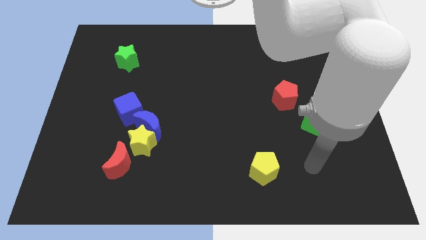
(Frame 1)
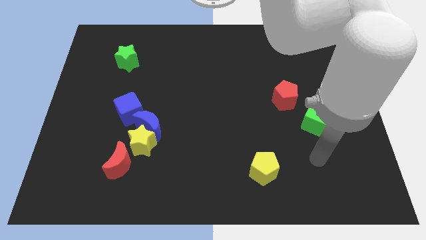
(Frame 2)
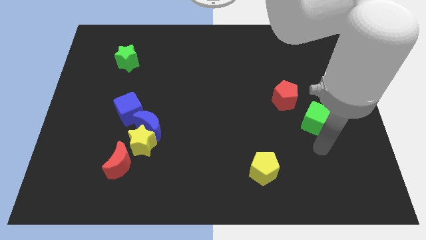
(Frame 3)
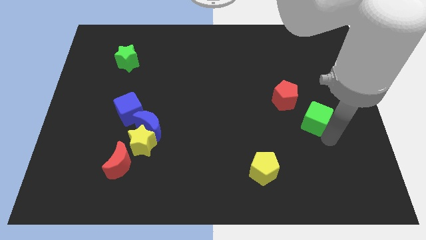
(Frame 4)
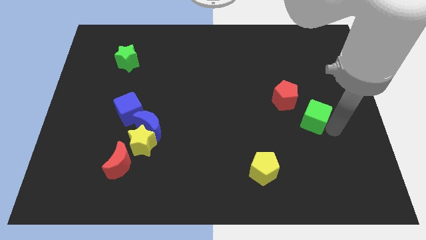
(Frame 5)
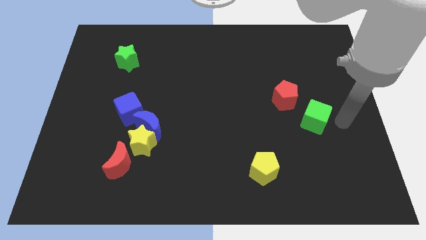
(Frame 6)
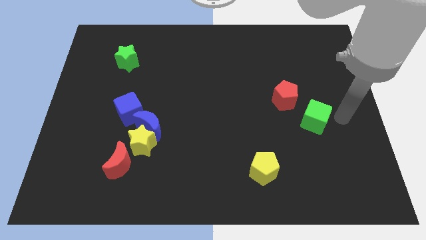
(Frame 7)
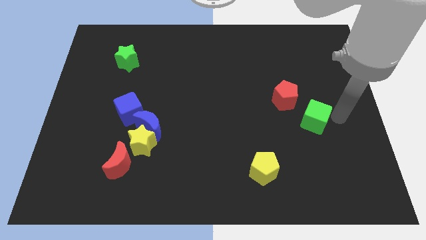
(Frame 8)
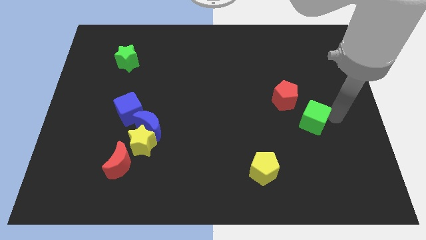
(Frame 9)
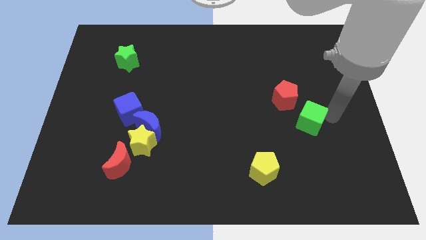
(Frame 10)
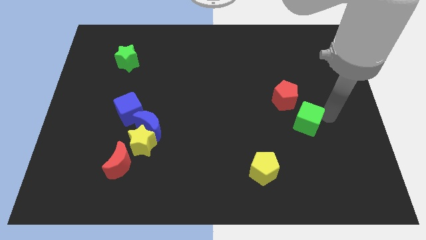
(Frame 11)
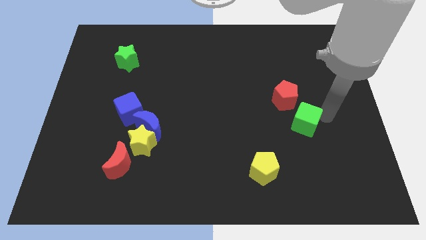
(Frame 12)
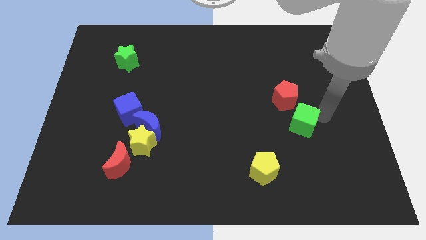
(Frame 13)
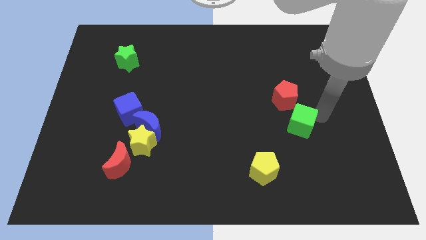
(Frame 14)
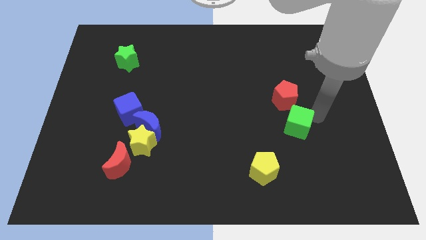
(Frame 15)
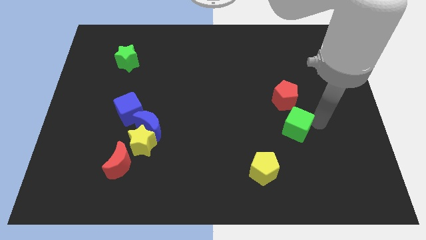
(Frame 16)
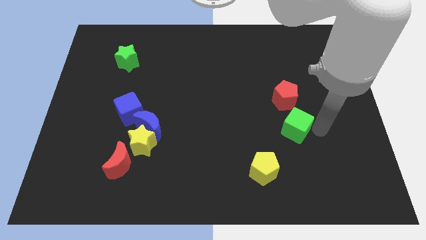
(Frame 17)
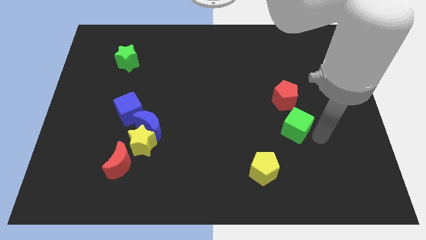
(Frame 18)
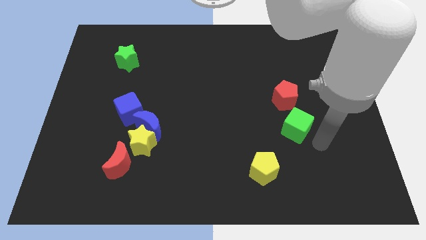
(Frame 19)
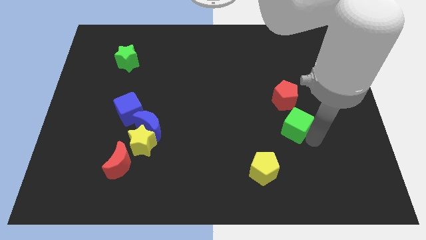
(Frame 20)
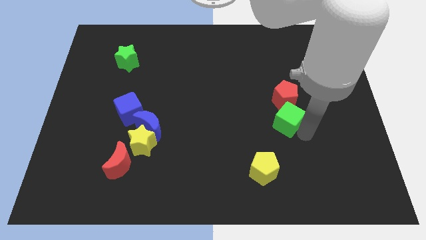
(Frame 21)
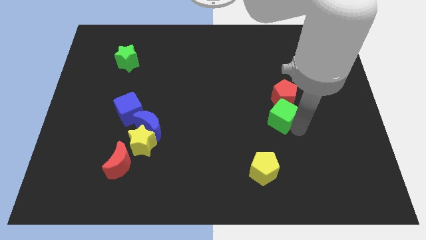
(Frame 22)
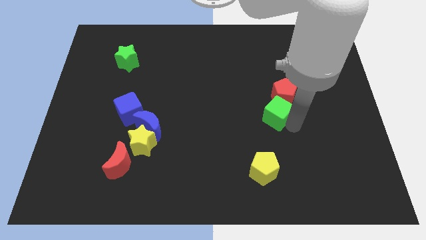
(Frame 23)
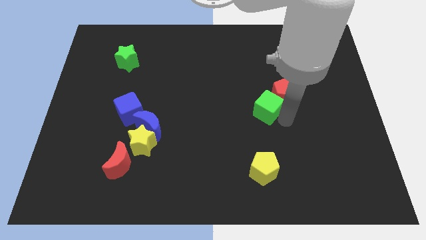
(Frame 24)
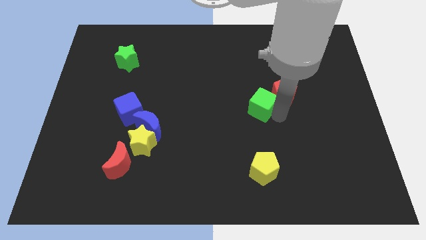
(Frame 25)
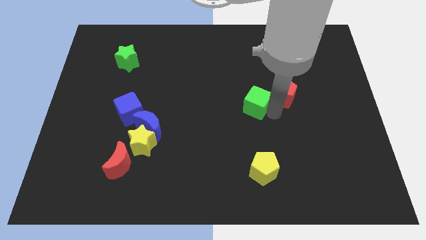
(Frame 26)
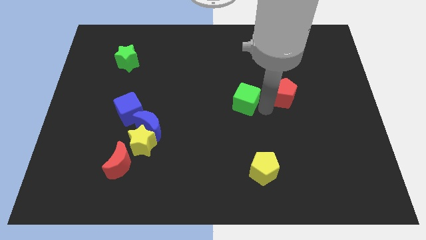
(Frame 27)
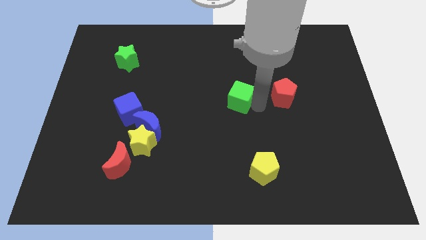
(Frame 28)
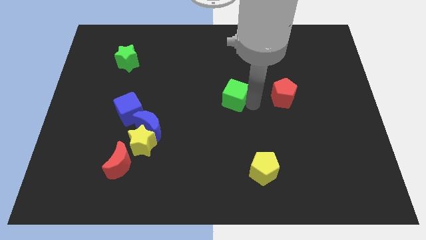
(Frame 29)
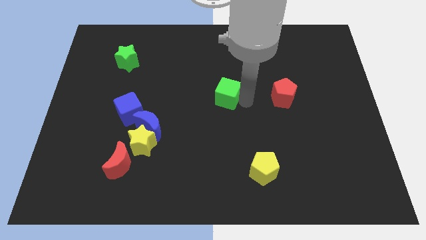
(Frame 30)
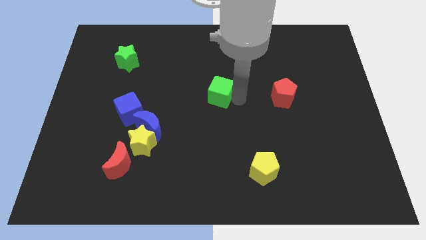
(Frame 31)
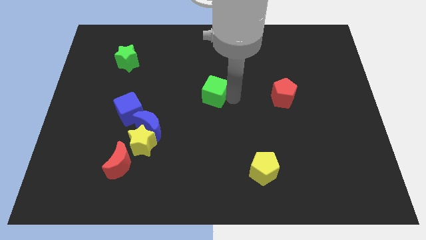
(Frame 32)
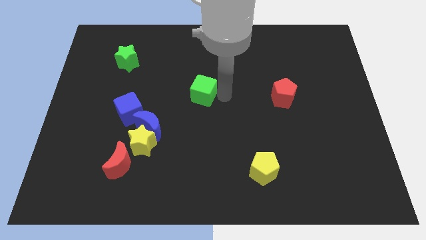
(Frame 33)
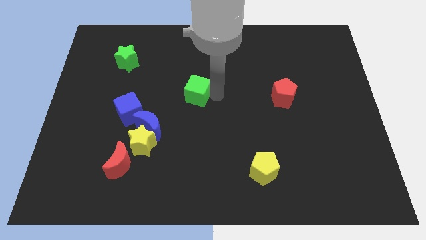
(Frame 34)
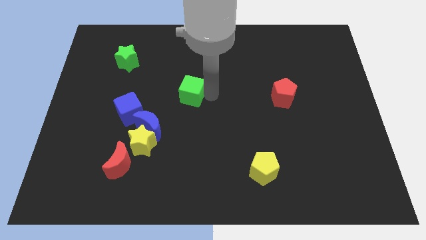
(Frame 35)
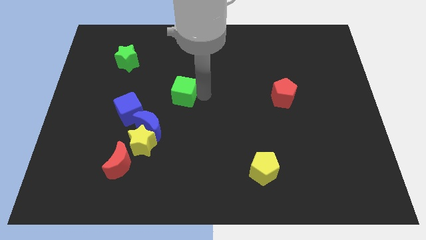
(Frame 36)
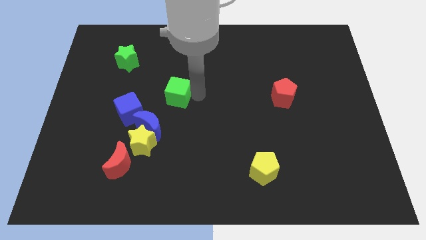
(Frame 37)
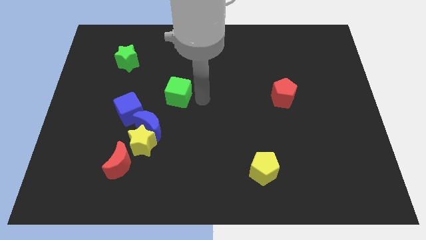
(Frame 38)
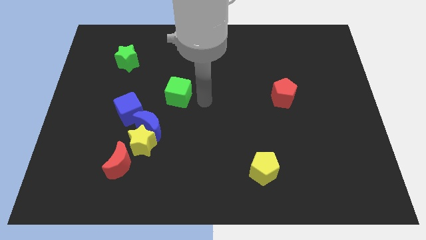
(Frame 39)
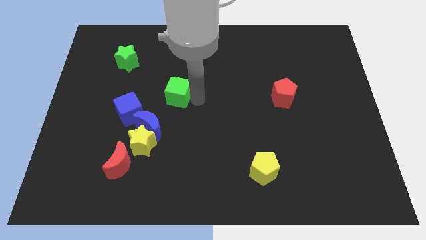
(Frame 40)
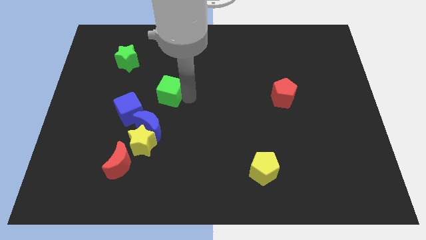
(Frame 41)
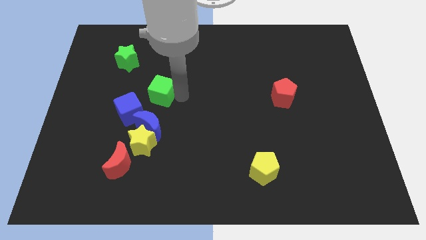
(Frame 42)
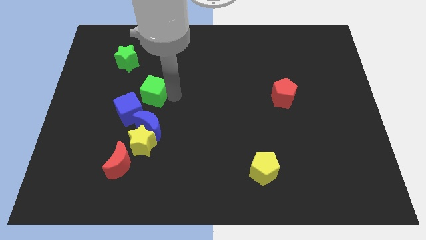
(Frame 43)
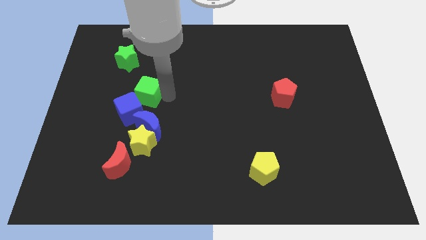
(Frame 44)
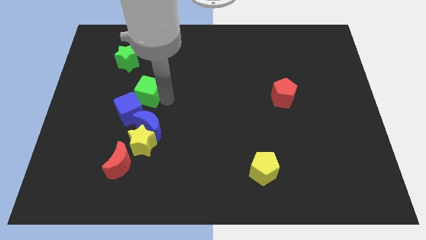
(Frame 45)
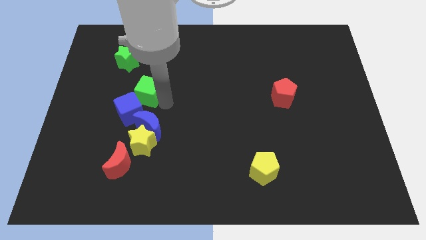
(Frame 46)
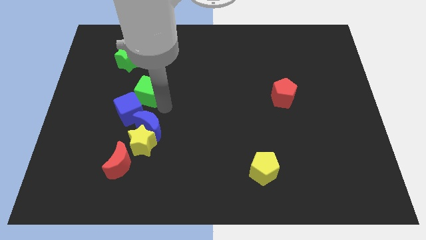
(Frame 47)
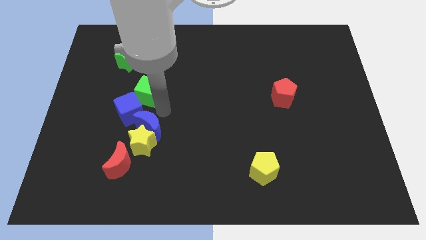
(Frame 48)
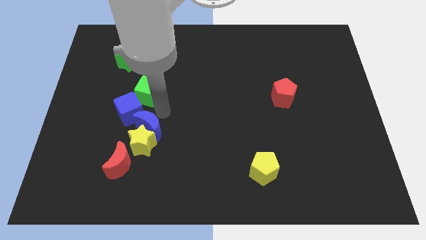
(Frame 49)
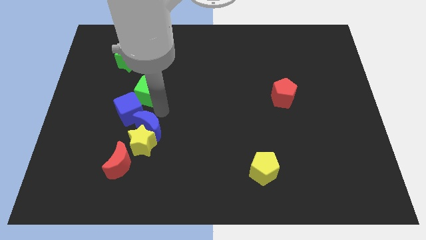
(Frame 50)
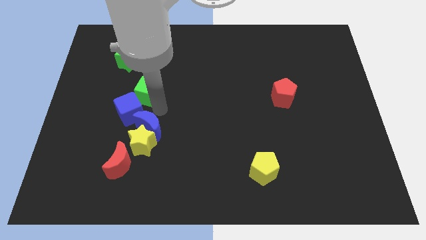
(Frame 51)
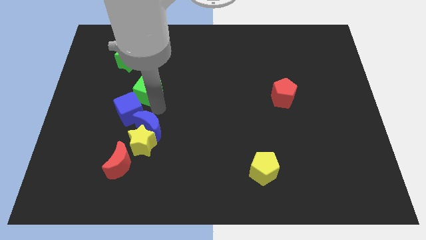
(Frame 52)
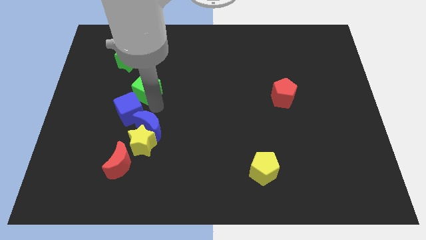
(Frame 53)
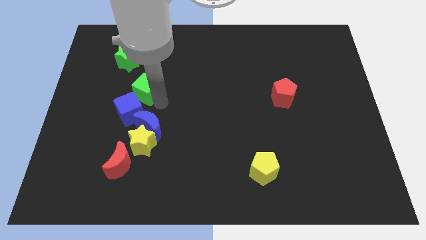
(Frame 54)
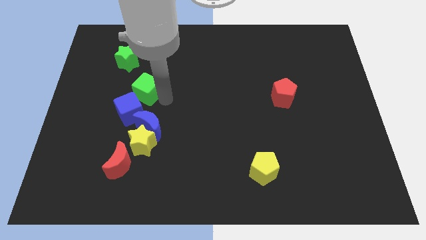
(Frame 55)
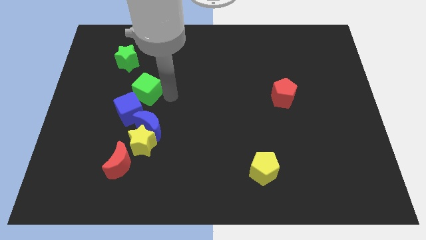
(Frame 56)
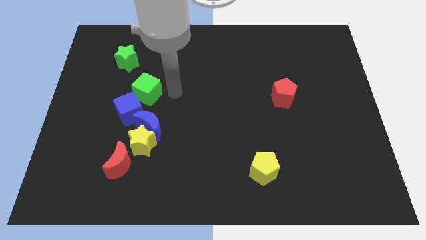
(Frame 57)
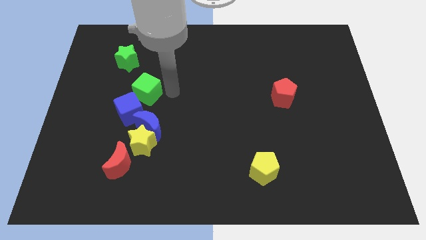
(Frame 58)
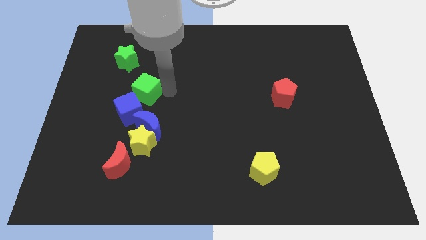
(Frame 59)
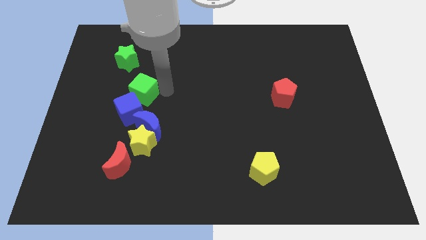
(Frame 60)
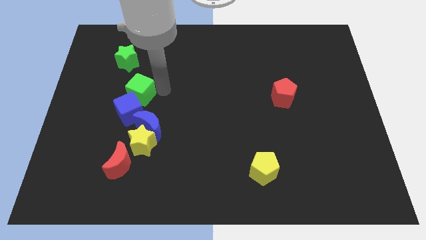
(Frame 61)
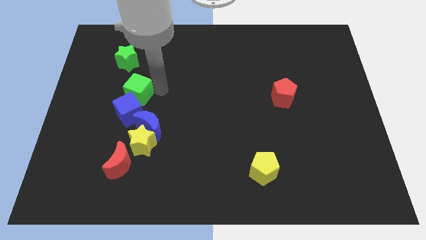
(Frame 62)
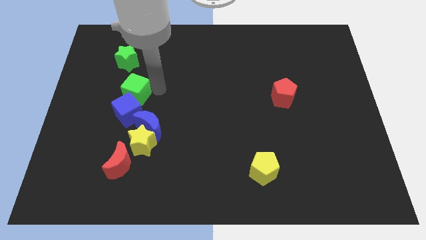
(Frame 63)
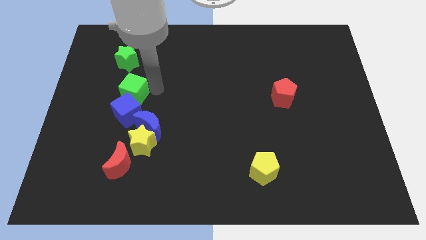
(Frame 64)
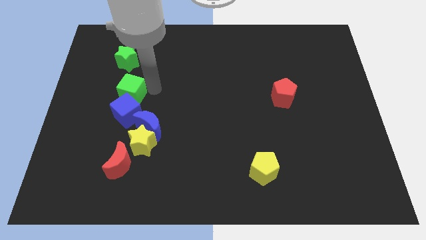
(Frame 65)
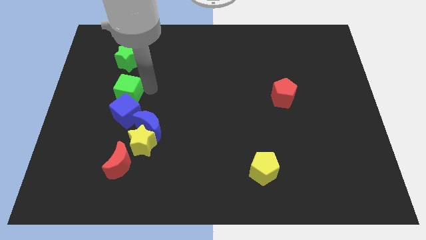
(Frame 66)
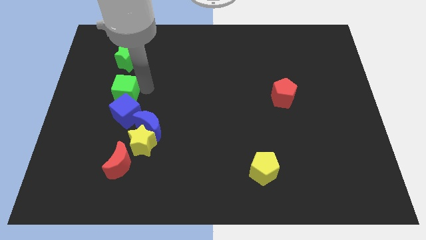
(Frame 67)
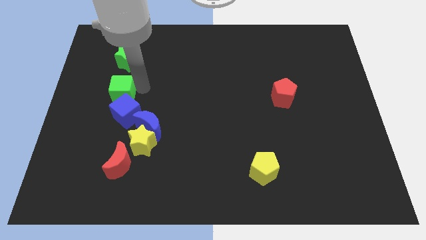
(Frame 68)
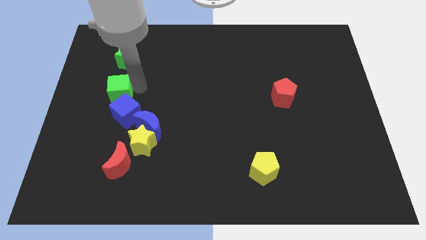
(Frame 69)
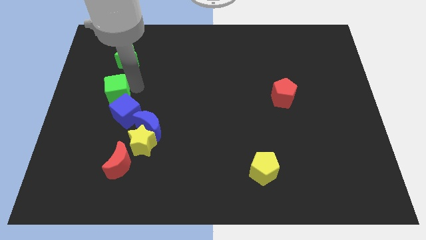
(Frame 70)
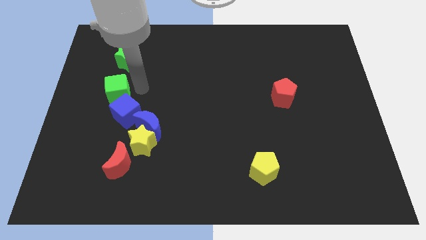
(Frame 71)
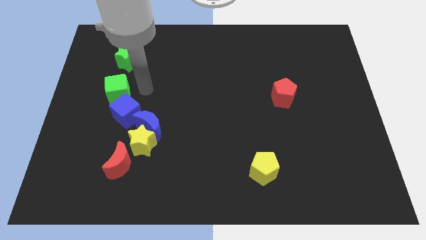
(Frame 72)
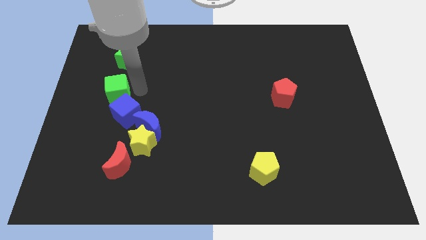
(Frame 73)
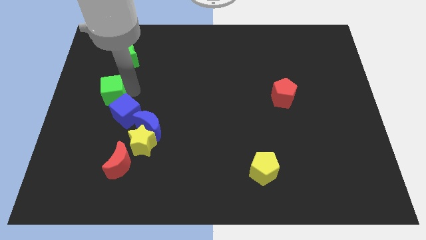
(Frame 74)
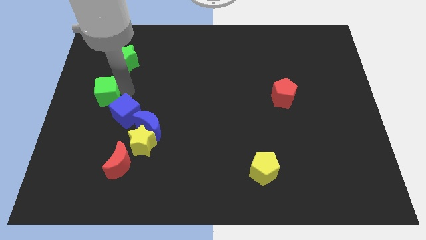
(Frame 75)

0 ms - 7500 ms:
push the green cube to the left side
